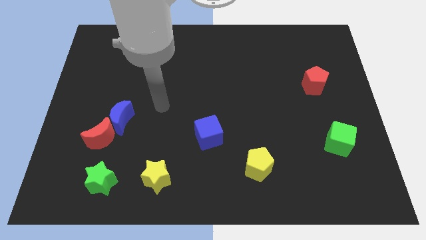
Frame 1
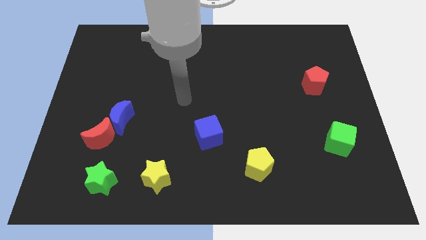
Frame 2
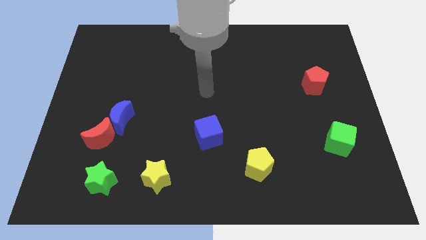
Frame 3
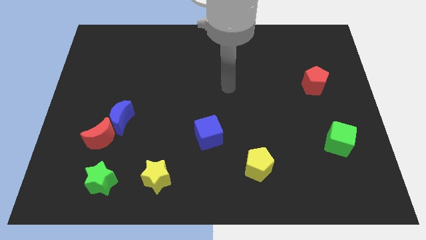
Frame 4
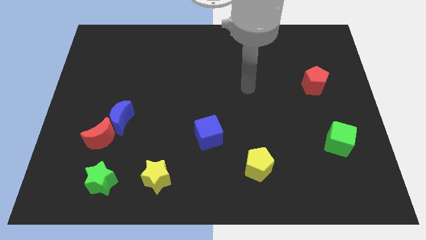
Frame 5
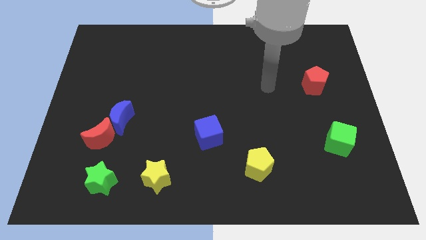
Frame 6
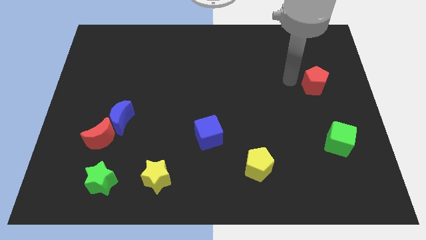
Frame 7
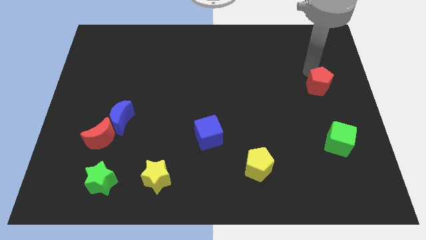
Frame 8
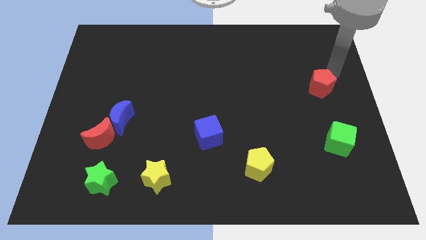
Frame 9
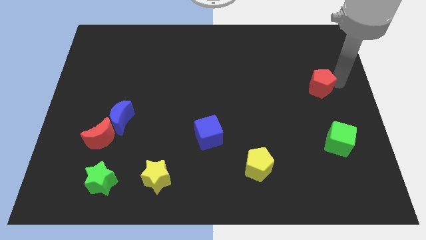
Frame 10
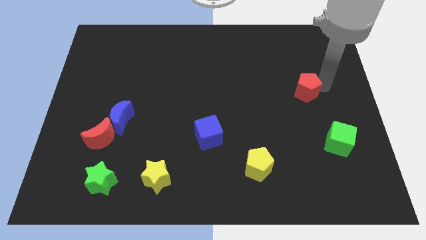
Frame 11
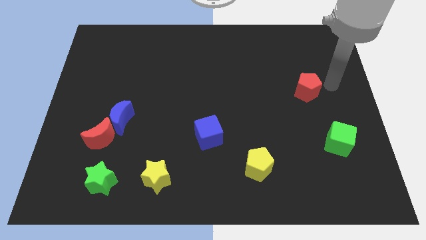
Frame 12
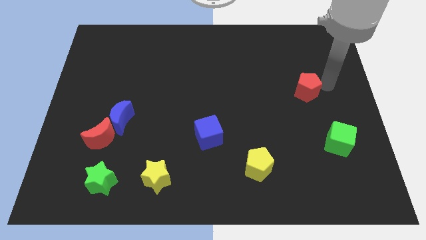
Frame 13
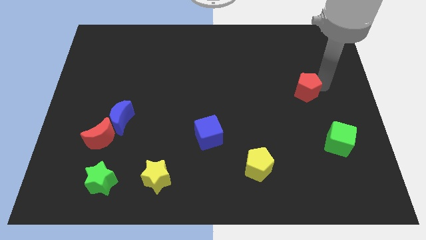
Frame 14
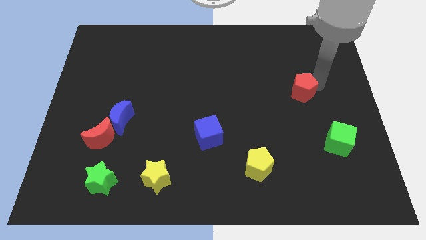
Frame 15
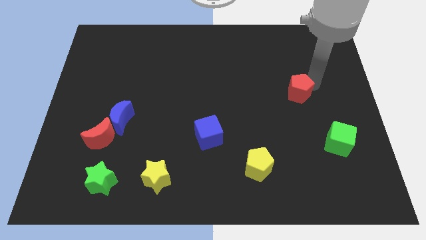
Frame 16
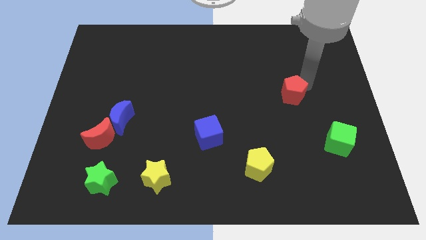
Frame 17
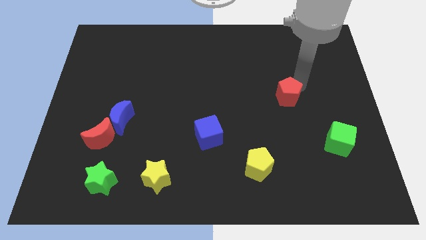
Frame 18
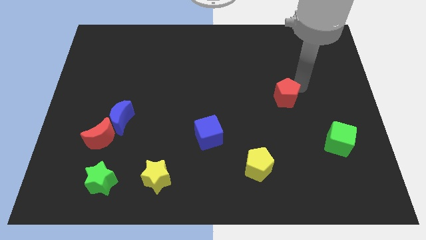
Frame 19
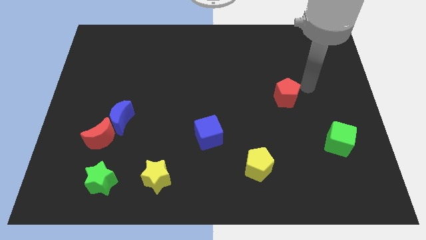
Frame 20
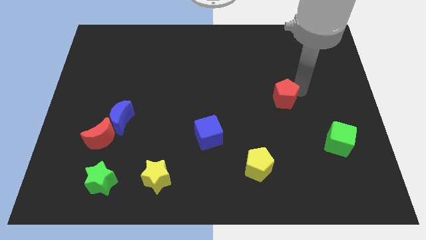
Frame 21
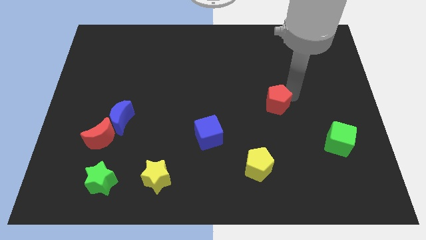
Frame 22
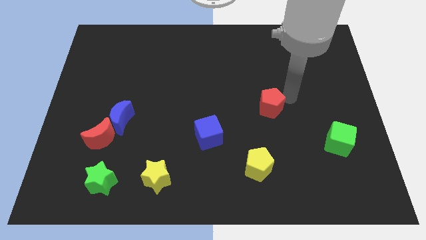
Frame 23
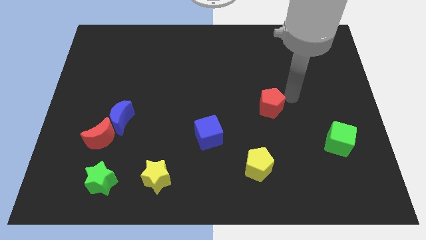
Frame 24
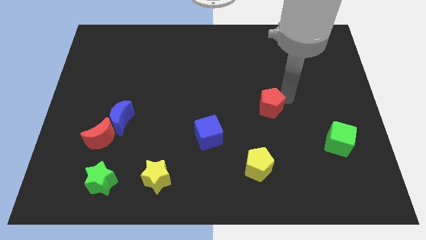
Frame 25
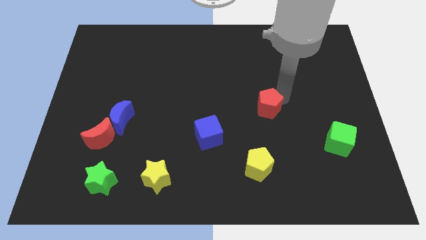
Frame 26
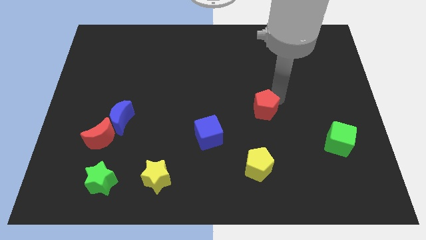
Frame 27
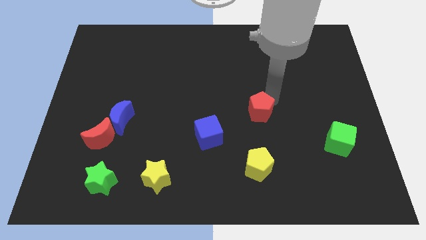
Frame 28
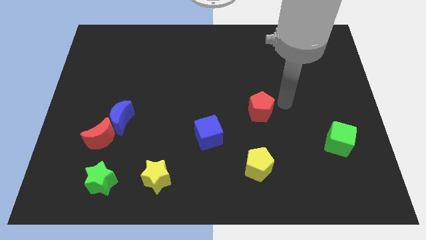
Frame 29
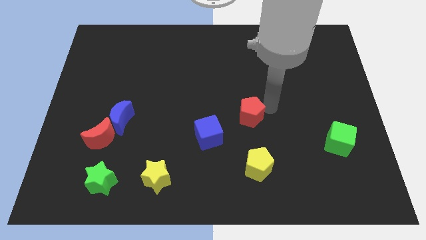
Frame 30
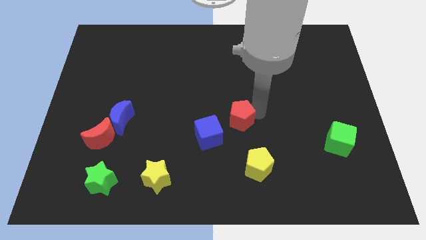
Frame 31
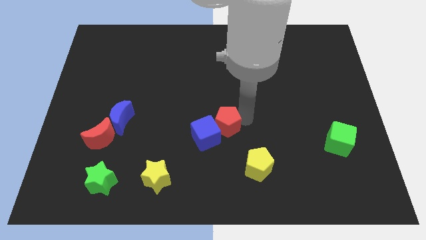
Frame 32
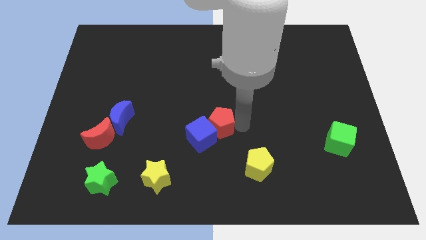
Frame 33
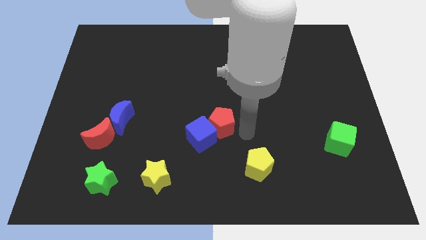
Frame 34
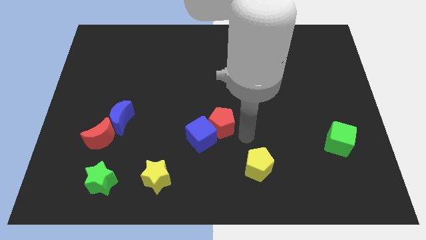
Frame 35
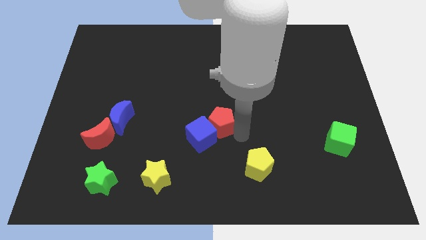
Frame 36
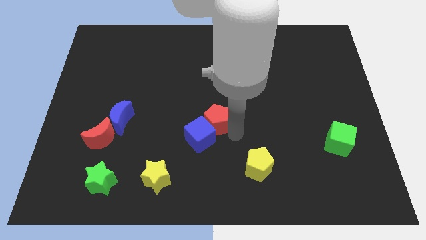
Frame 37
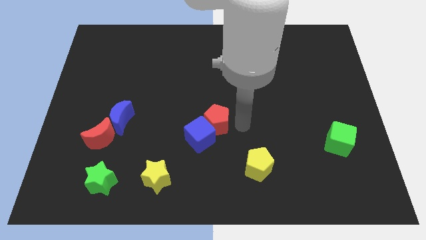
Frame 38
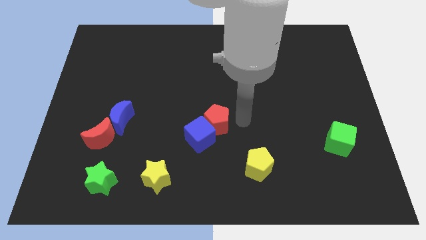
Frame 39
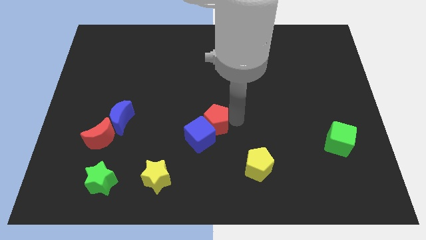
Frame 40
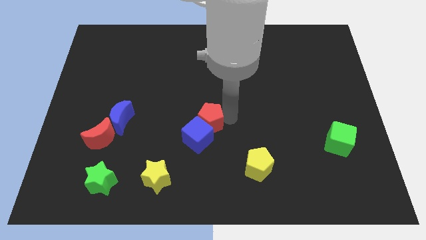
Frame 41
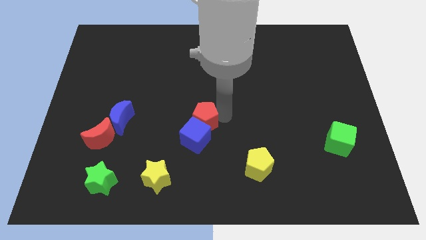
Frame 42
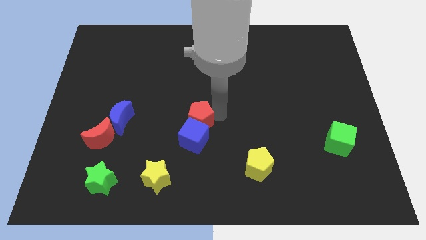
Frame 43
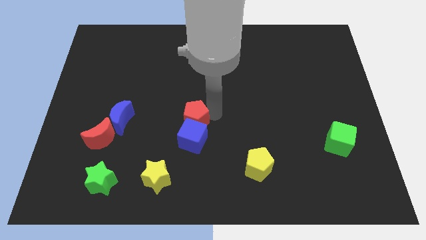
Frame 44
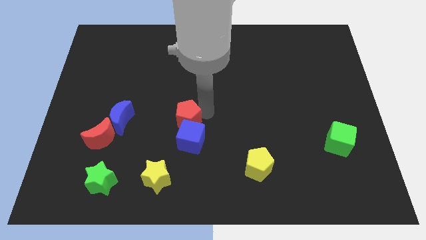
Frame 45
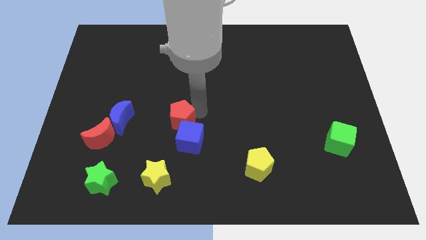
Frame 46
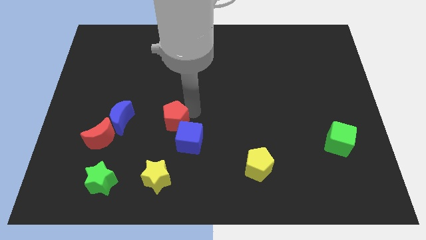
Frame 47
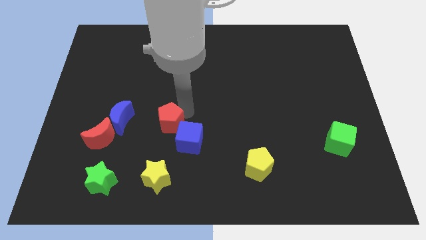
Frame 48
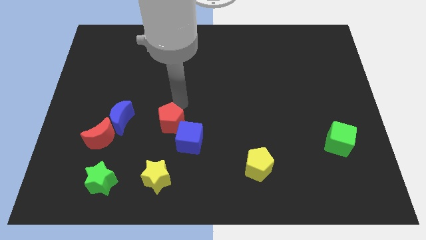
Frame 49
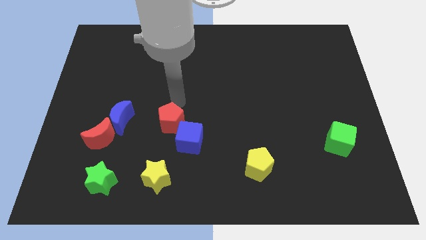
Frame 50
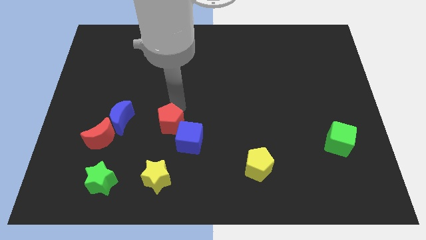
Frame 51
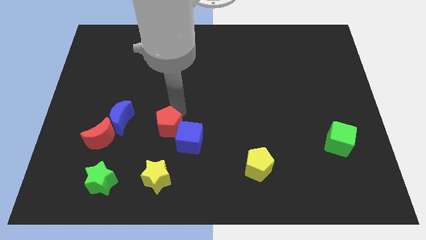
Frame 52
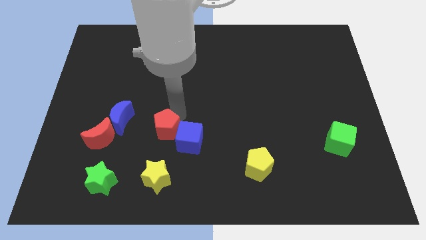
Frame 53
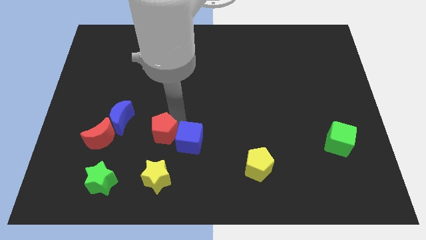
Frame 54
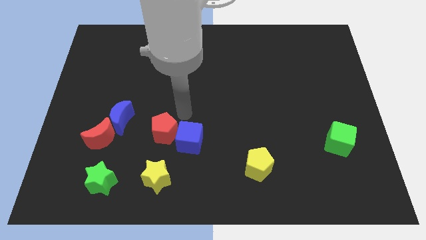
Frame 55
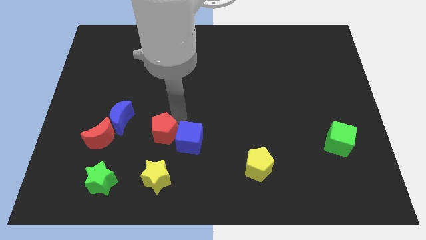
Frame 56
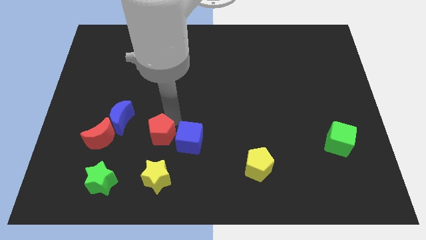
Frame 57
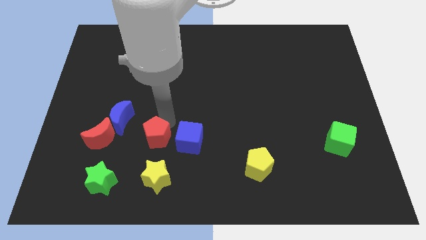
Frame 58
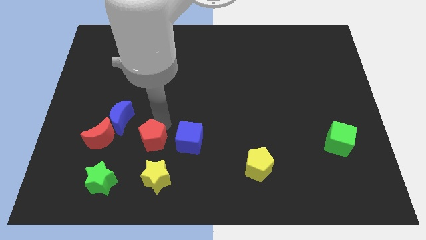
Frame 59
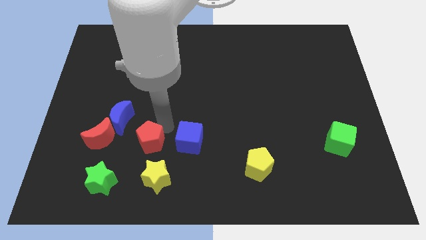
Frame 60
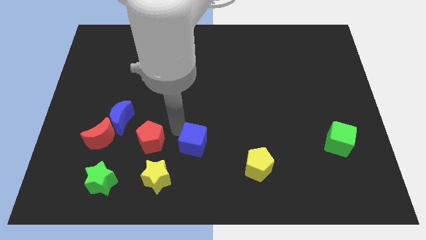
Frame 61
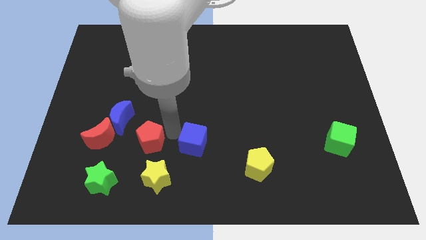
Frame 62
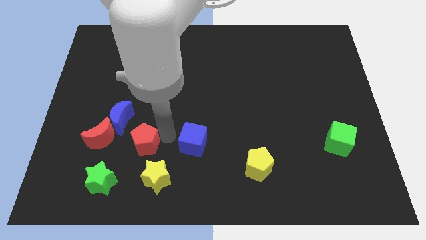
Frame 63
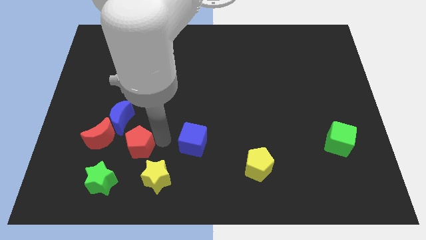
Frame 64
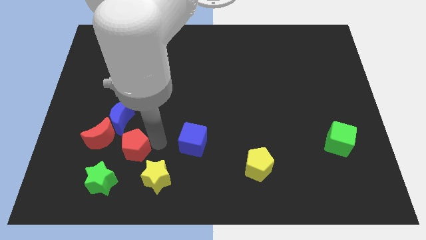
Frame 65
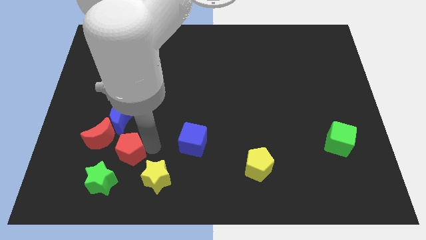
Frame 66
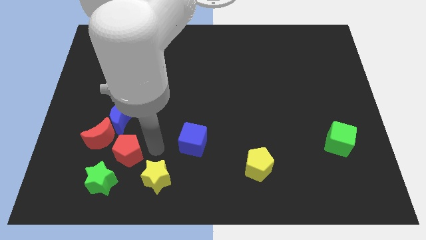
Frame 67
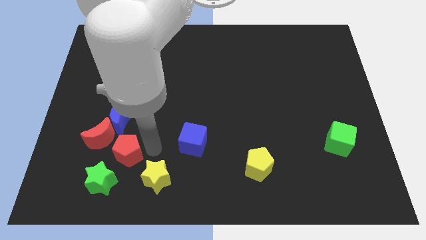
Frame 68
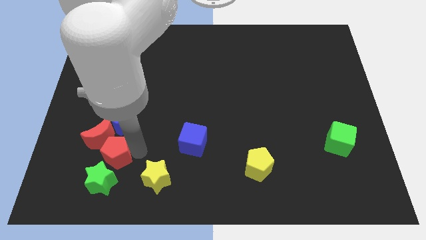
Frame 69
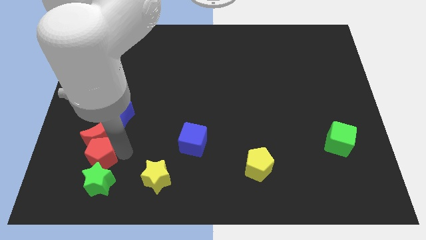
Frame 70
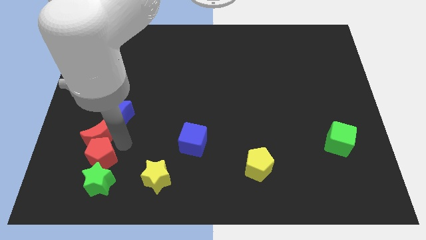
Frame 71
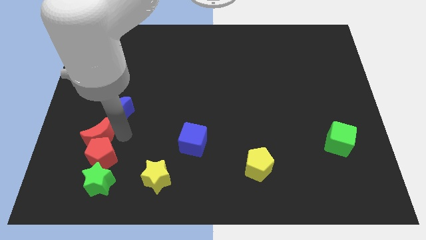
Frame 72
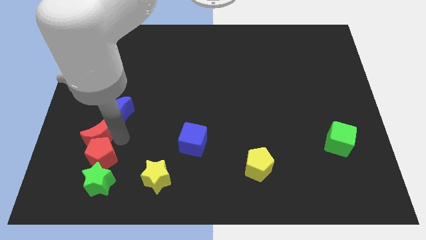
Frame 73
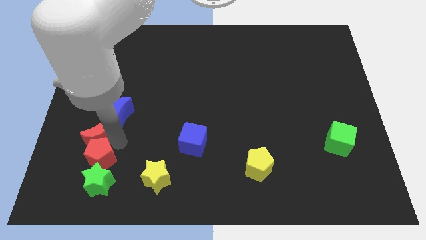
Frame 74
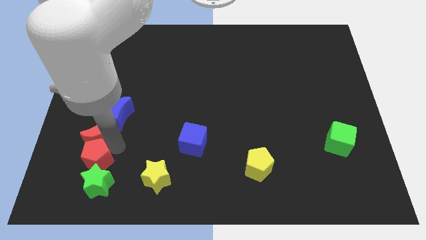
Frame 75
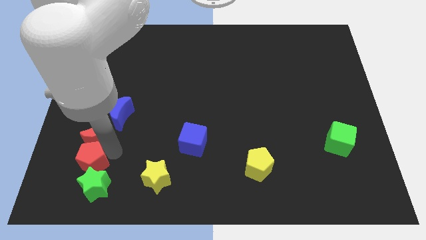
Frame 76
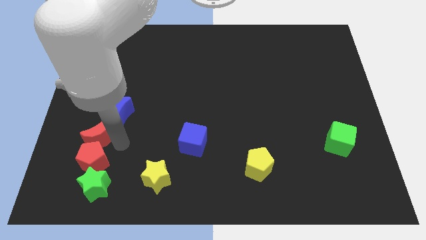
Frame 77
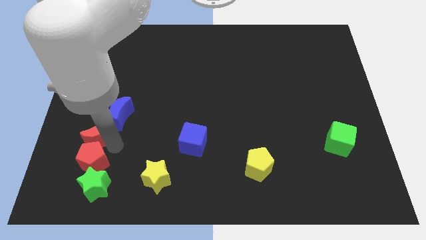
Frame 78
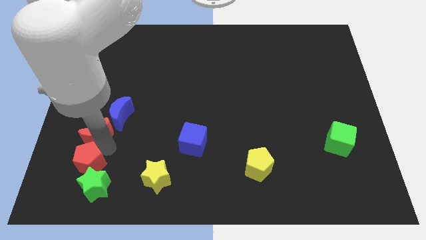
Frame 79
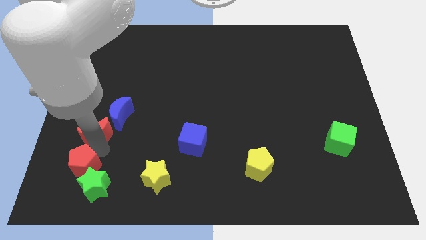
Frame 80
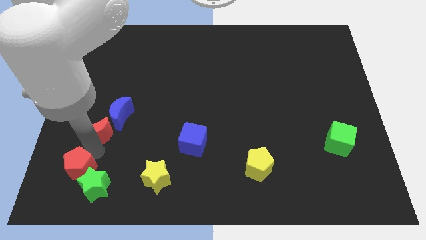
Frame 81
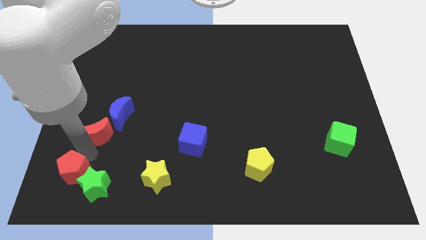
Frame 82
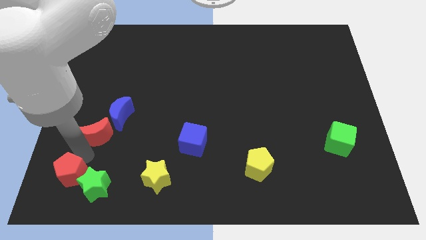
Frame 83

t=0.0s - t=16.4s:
move the red pentagon to the bottom left of the board
